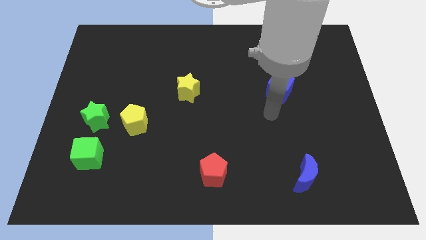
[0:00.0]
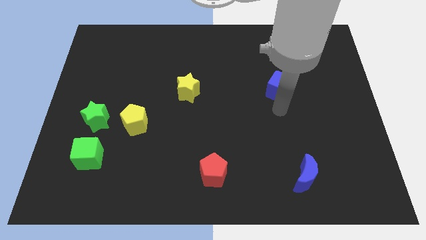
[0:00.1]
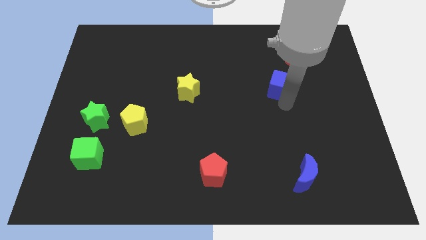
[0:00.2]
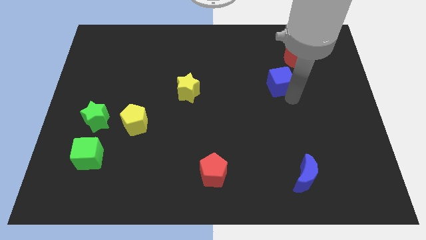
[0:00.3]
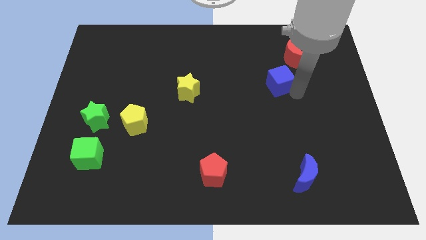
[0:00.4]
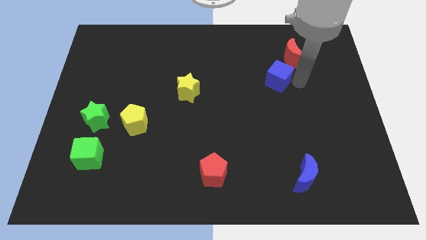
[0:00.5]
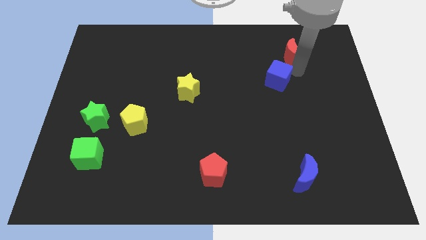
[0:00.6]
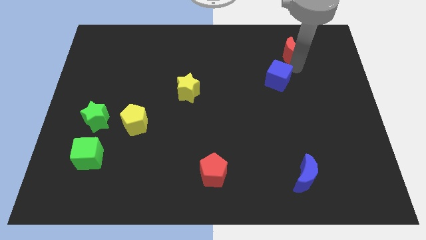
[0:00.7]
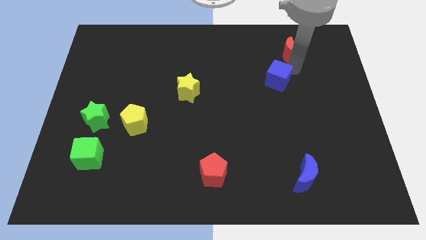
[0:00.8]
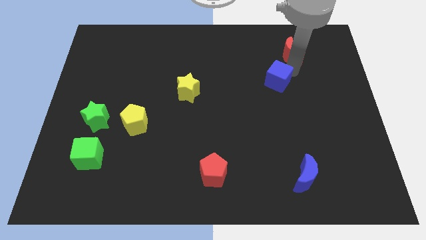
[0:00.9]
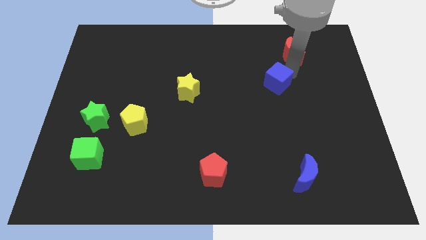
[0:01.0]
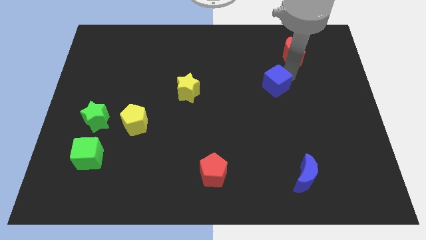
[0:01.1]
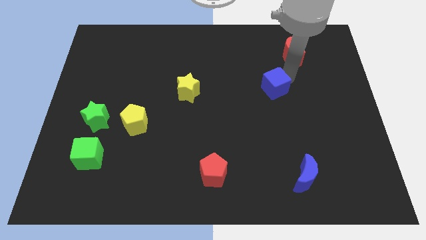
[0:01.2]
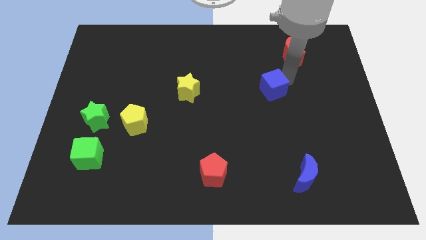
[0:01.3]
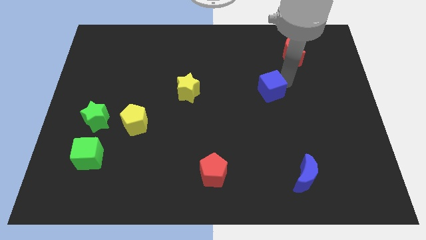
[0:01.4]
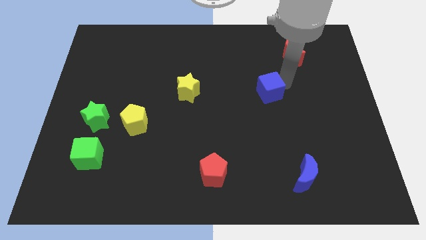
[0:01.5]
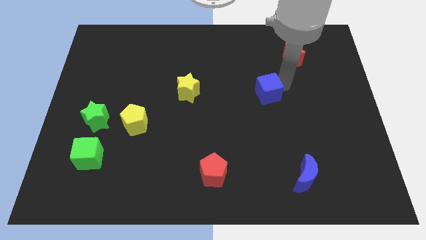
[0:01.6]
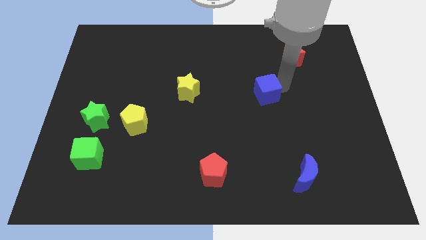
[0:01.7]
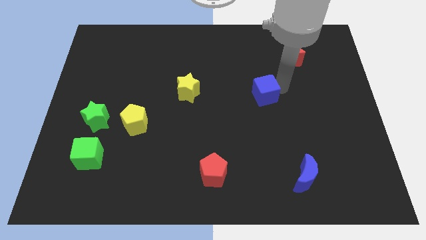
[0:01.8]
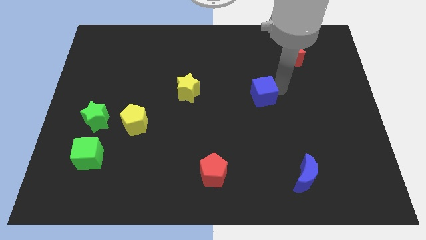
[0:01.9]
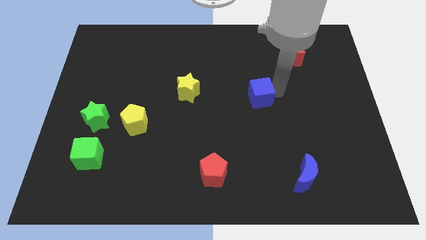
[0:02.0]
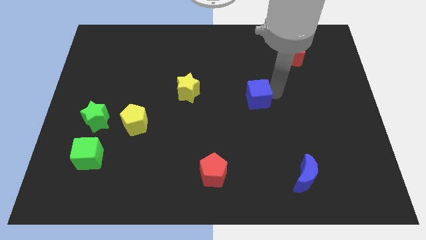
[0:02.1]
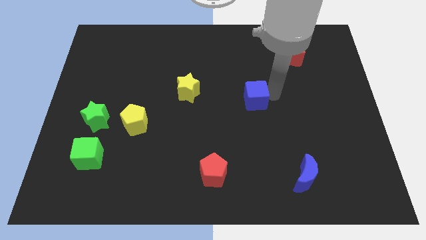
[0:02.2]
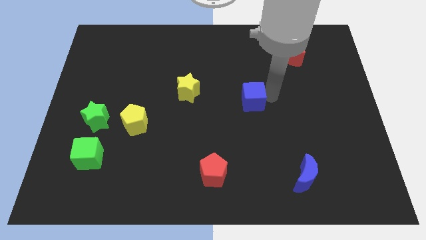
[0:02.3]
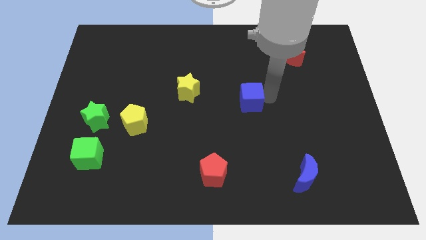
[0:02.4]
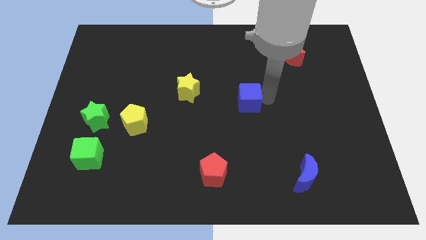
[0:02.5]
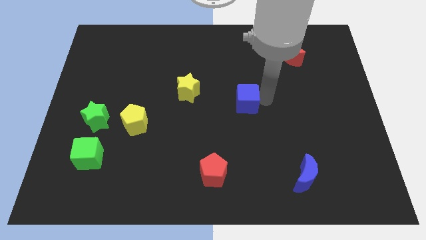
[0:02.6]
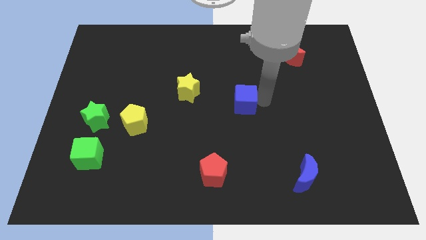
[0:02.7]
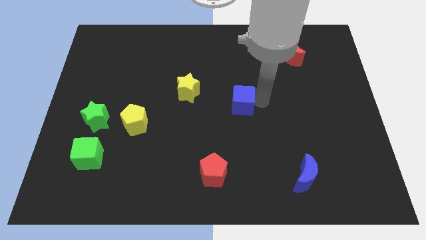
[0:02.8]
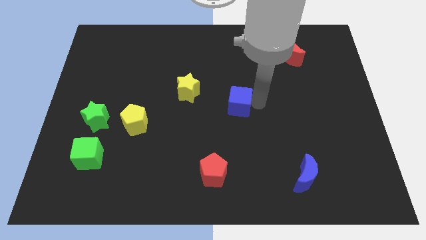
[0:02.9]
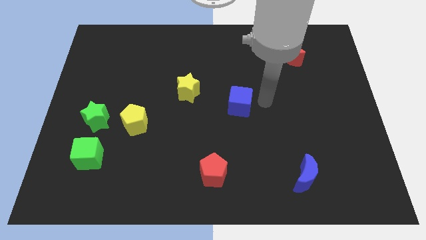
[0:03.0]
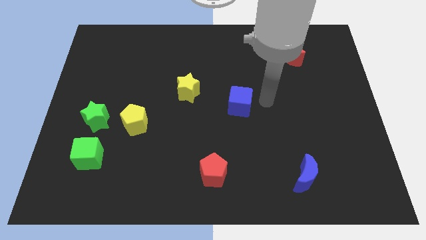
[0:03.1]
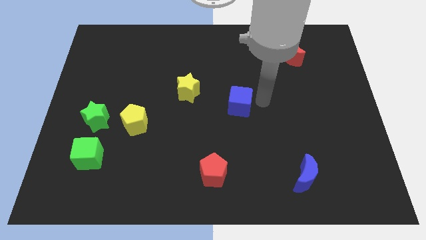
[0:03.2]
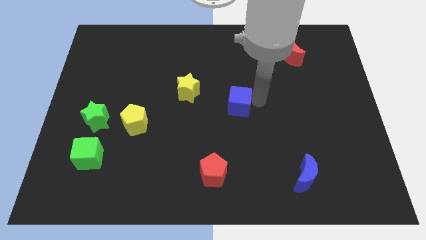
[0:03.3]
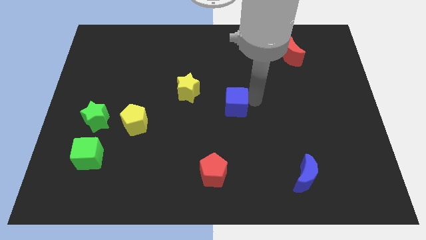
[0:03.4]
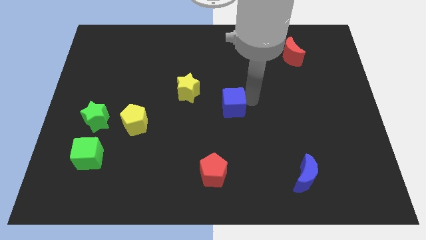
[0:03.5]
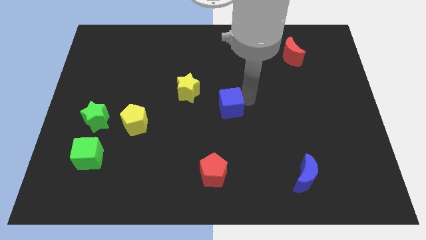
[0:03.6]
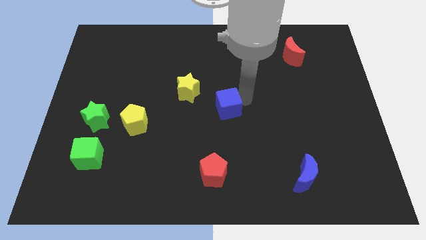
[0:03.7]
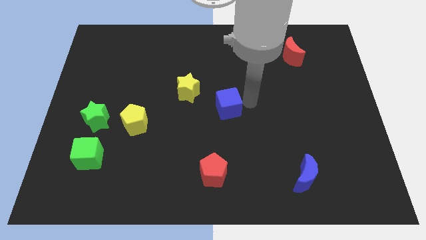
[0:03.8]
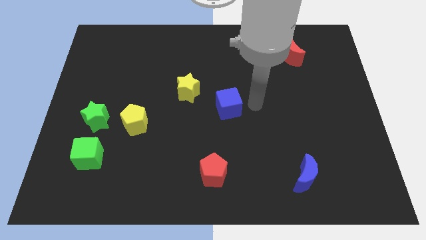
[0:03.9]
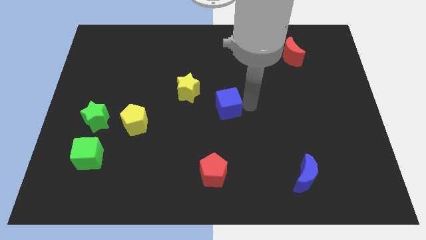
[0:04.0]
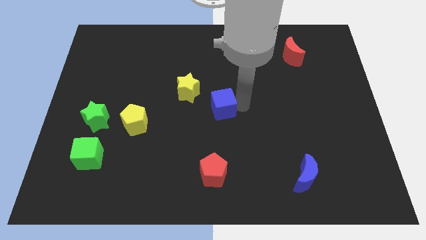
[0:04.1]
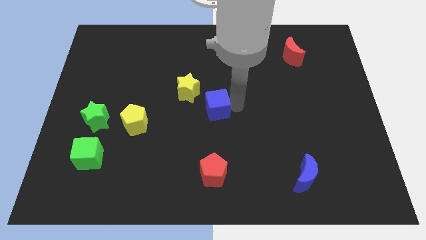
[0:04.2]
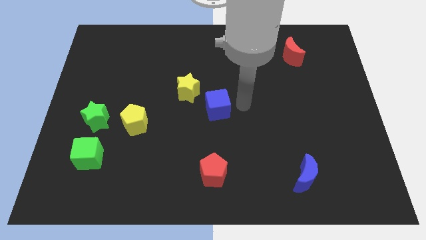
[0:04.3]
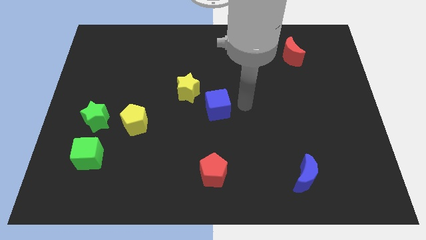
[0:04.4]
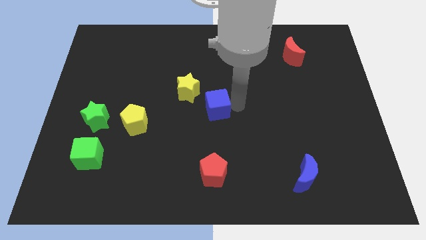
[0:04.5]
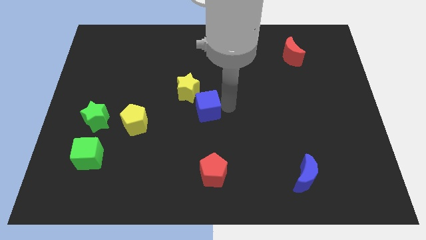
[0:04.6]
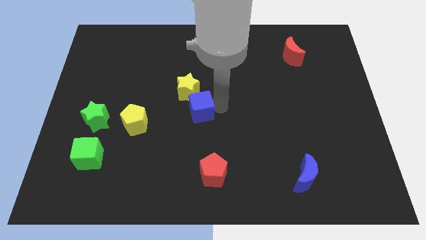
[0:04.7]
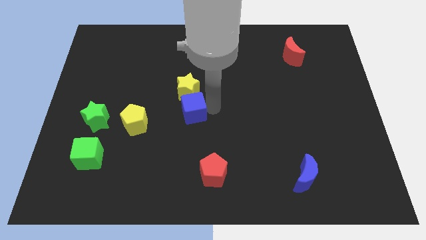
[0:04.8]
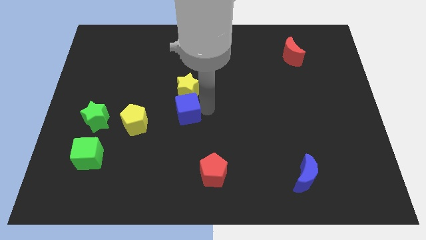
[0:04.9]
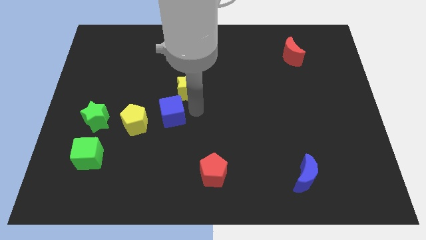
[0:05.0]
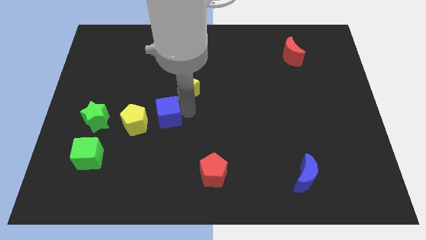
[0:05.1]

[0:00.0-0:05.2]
put the blue cube to the right of the green star

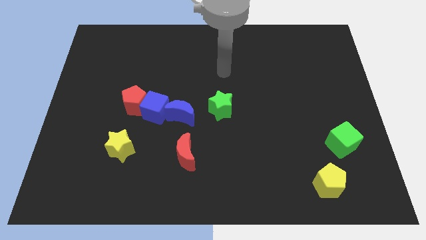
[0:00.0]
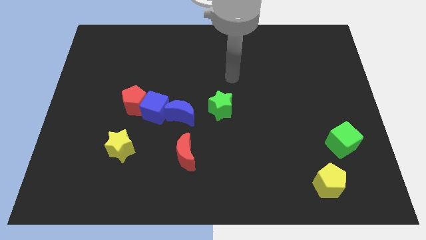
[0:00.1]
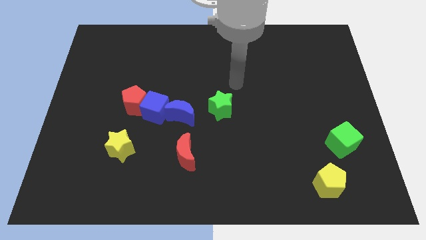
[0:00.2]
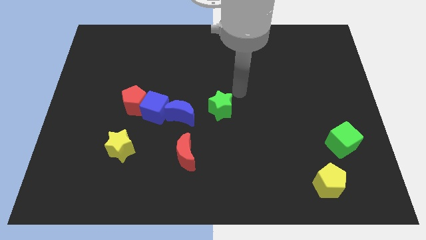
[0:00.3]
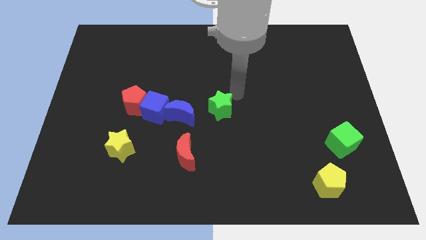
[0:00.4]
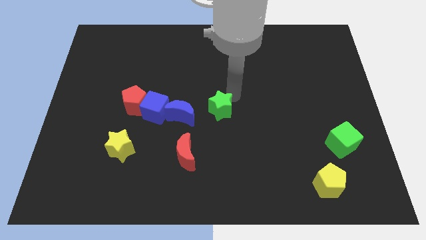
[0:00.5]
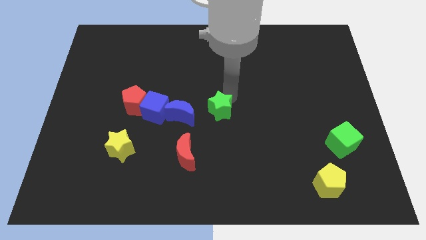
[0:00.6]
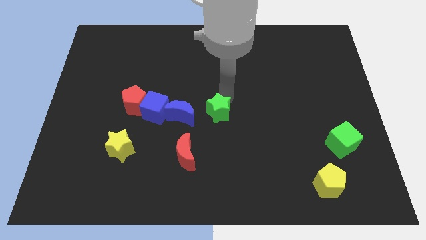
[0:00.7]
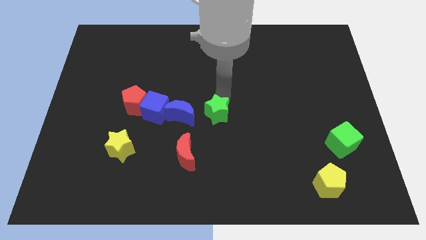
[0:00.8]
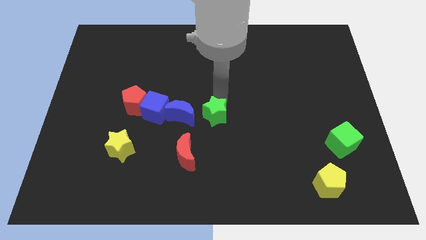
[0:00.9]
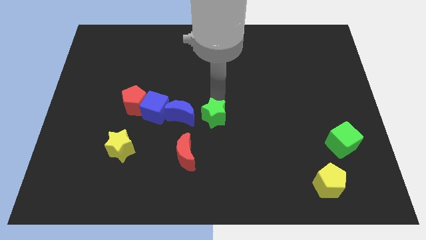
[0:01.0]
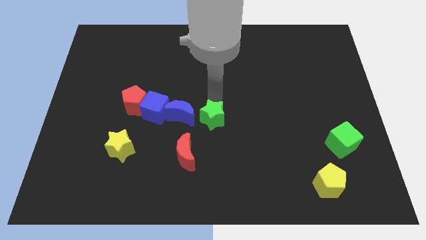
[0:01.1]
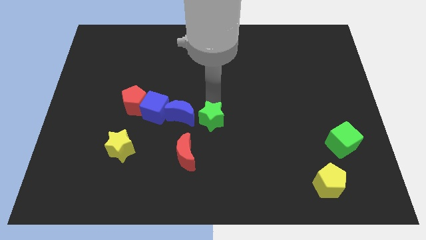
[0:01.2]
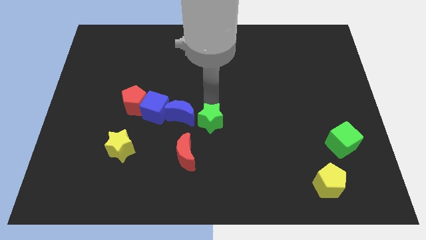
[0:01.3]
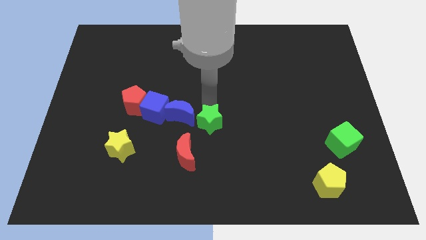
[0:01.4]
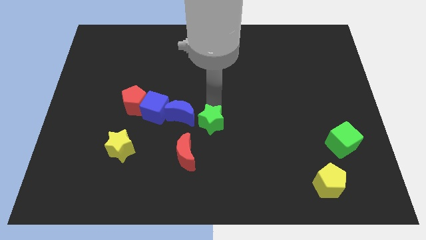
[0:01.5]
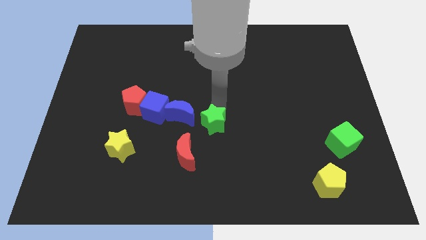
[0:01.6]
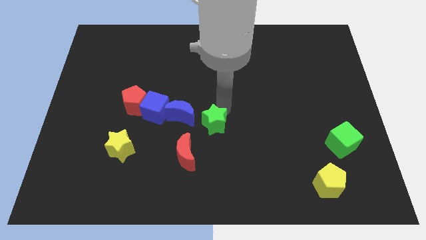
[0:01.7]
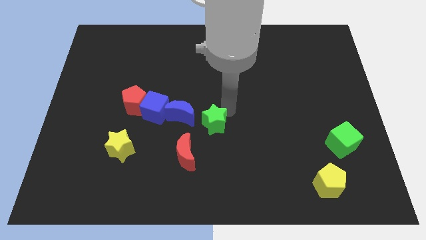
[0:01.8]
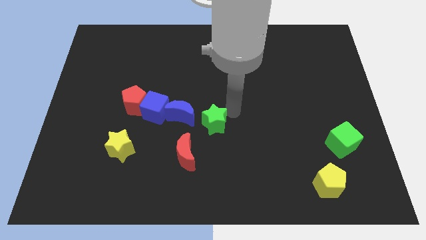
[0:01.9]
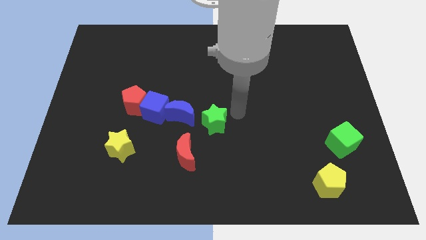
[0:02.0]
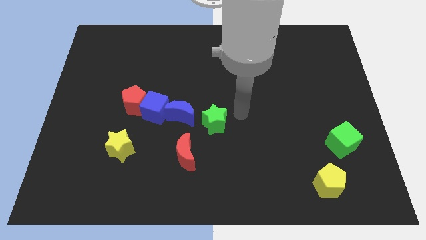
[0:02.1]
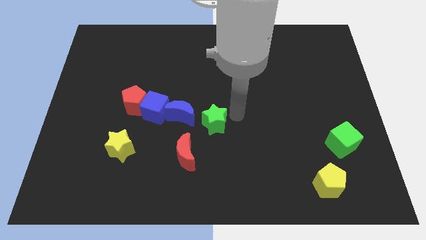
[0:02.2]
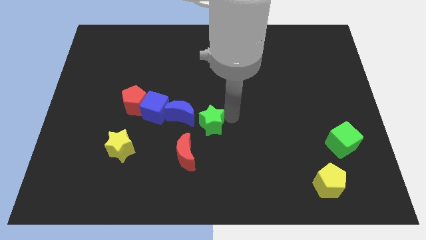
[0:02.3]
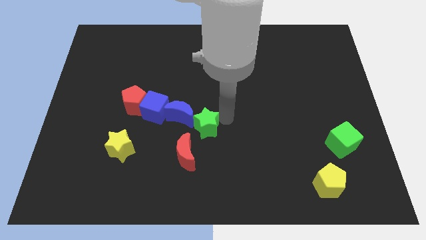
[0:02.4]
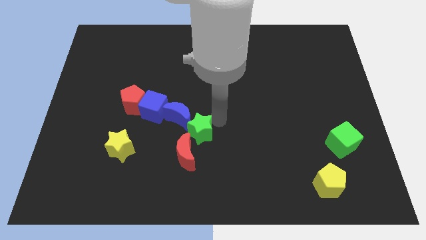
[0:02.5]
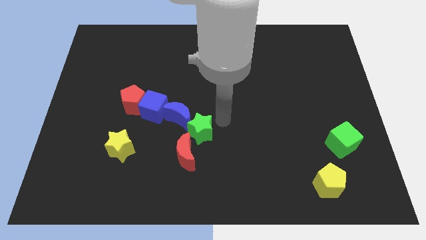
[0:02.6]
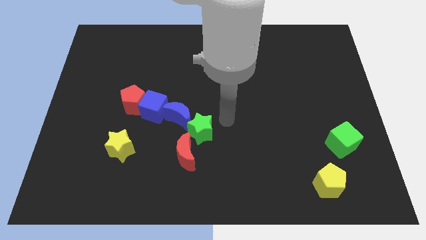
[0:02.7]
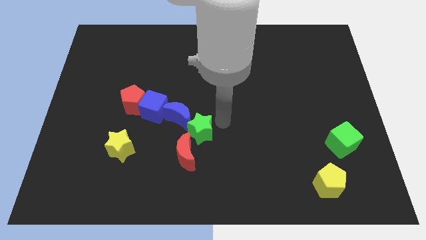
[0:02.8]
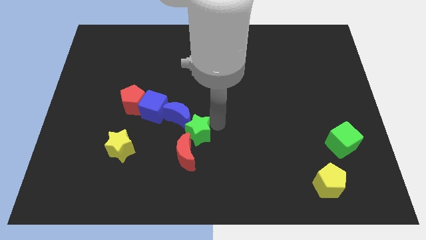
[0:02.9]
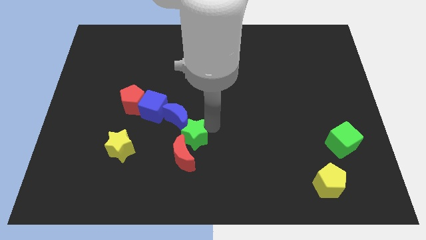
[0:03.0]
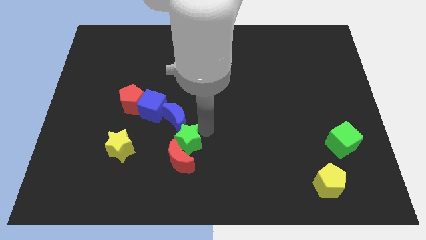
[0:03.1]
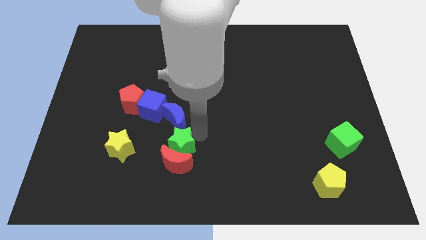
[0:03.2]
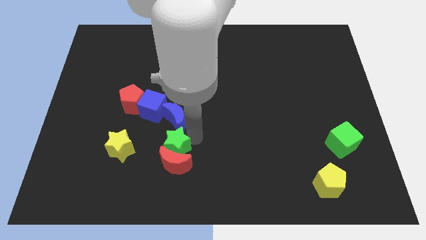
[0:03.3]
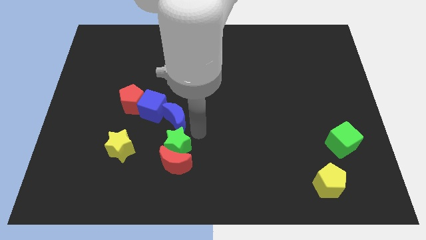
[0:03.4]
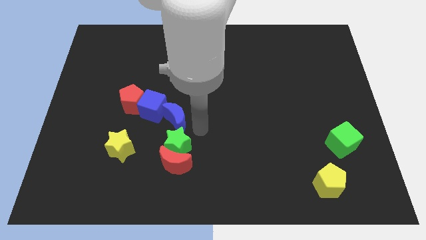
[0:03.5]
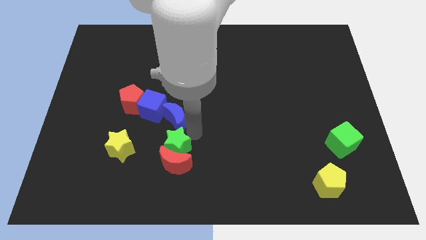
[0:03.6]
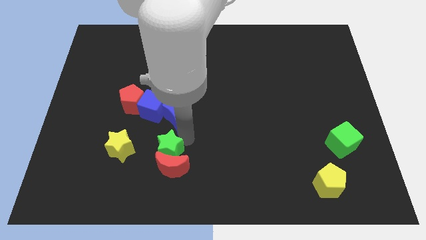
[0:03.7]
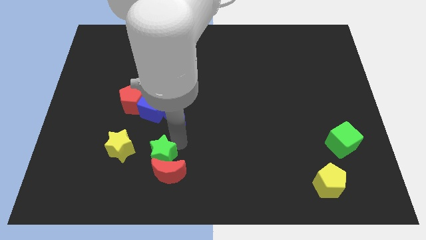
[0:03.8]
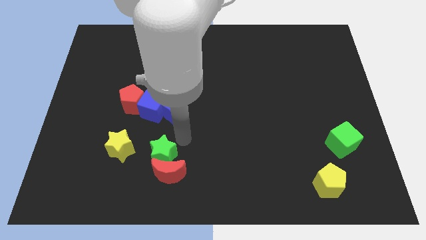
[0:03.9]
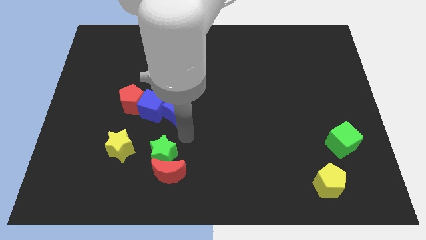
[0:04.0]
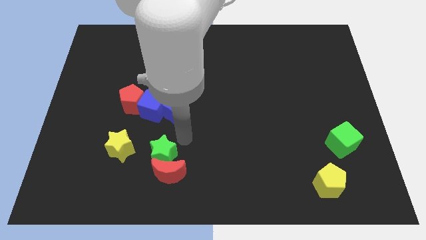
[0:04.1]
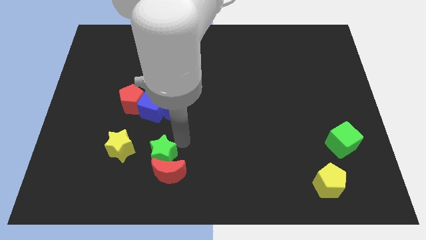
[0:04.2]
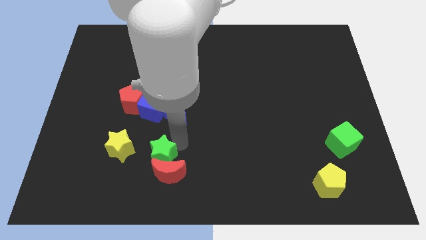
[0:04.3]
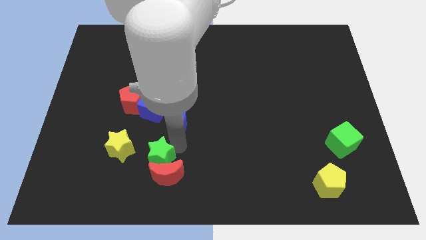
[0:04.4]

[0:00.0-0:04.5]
push the green star to the bottom right side of the yellow star
